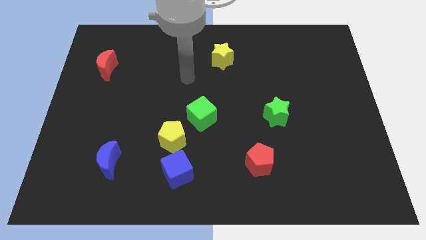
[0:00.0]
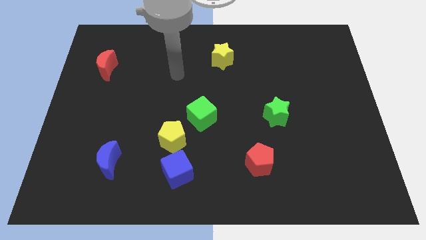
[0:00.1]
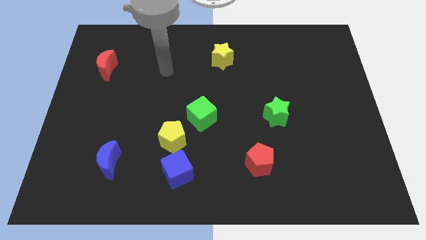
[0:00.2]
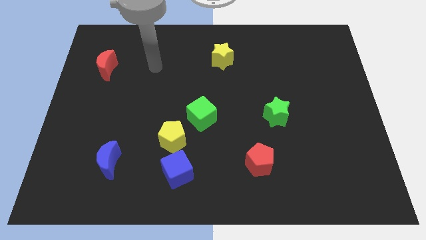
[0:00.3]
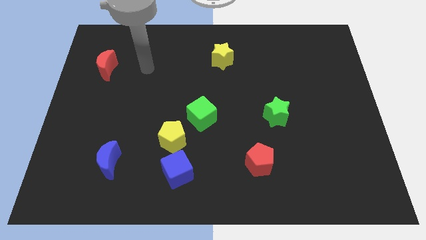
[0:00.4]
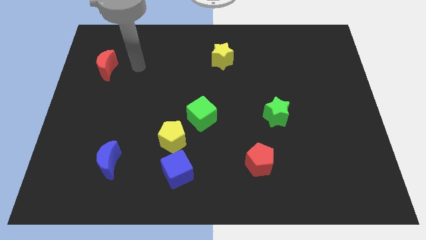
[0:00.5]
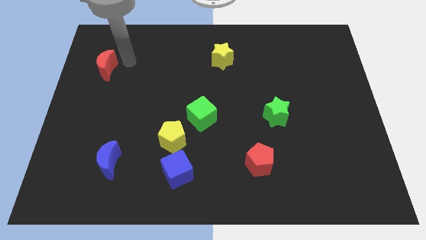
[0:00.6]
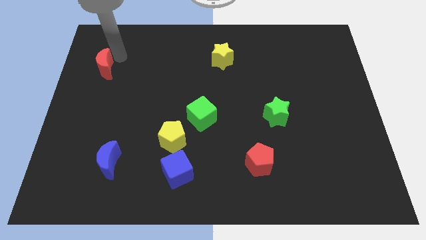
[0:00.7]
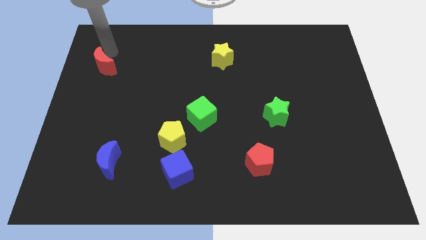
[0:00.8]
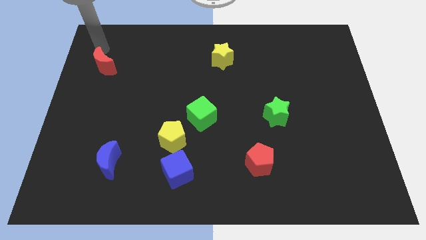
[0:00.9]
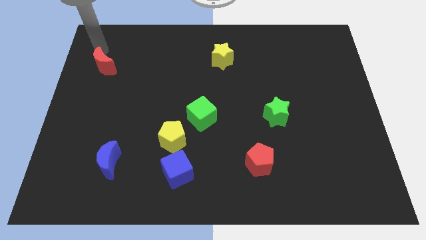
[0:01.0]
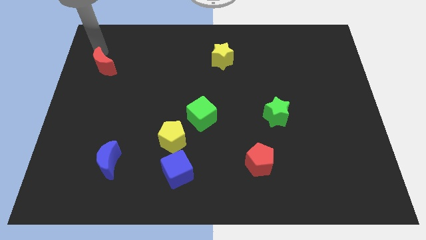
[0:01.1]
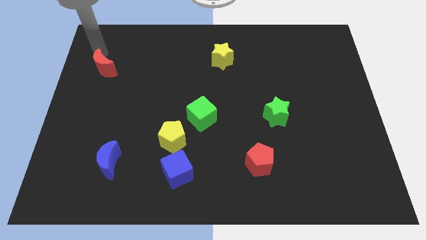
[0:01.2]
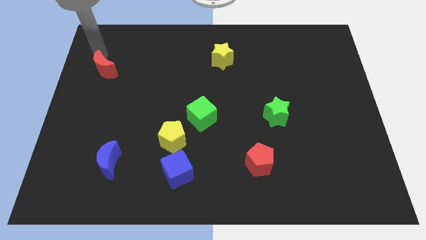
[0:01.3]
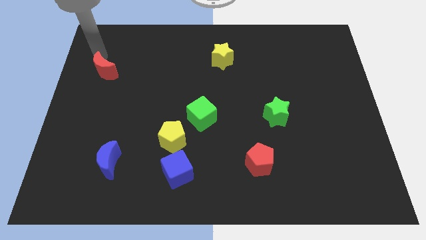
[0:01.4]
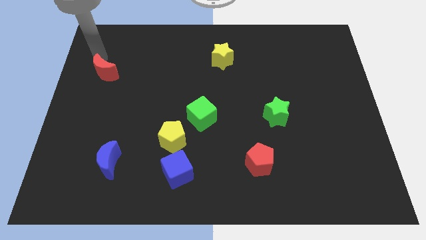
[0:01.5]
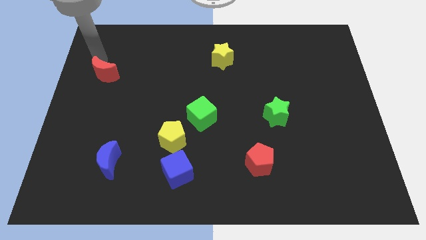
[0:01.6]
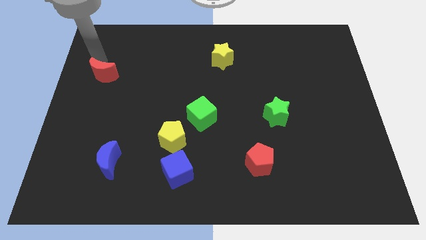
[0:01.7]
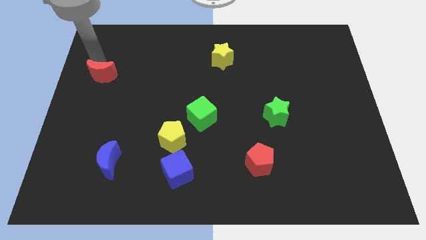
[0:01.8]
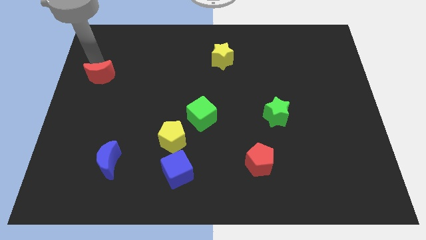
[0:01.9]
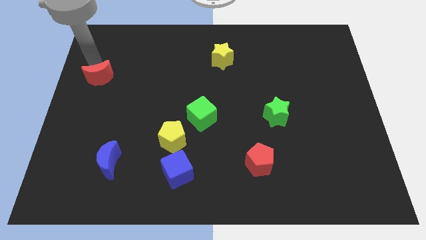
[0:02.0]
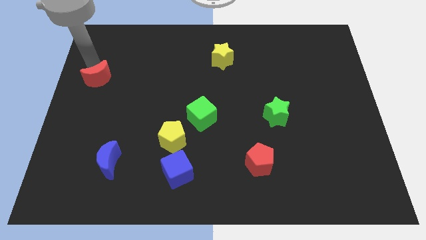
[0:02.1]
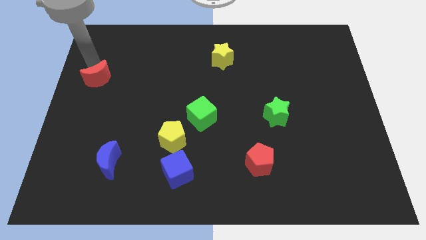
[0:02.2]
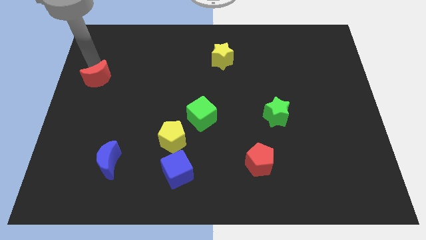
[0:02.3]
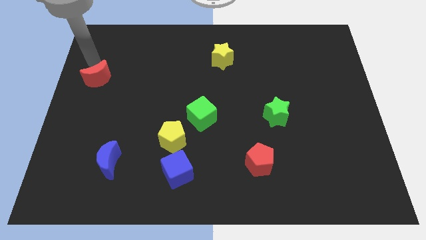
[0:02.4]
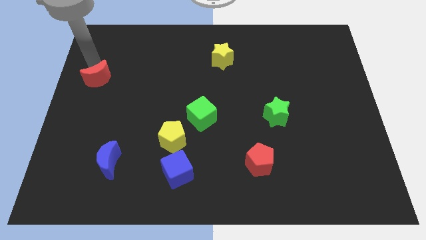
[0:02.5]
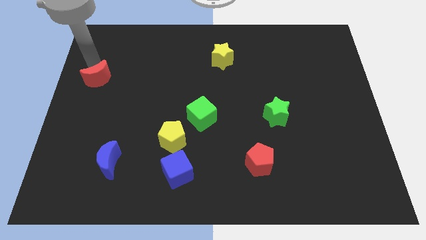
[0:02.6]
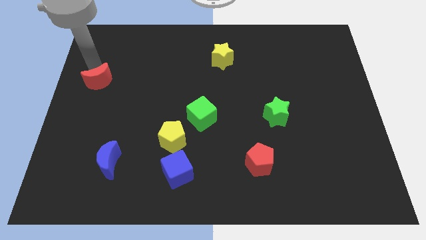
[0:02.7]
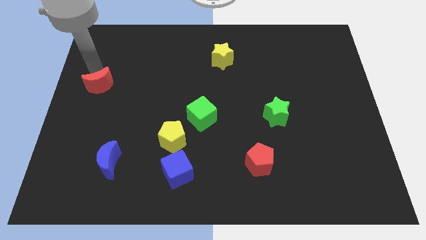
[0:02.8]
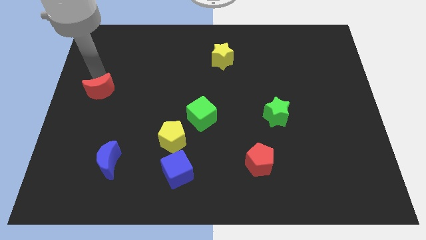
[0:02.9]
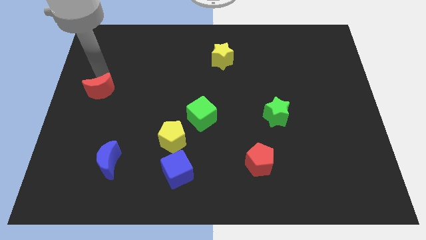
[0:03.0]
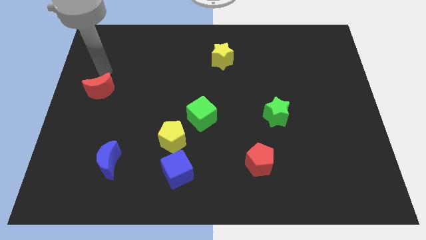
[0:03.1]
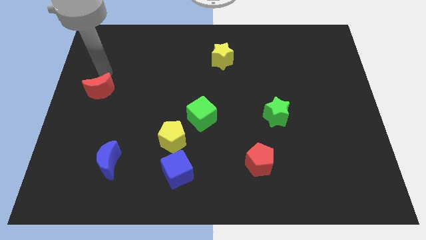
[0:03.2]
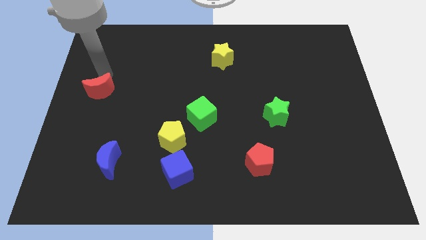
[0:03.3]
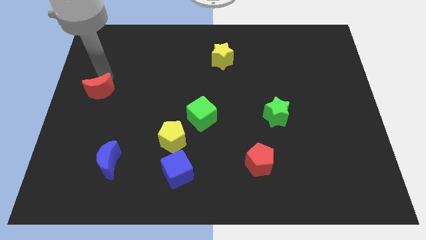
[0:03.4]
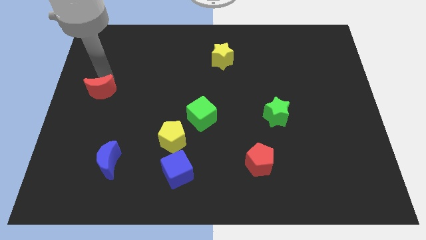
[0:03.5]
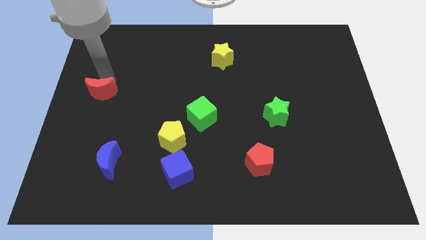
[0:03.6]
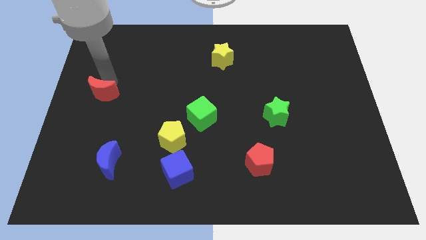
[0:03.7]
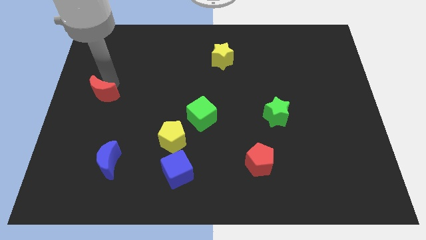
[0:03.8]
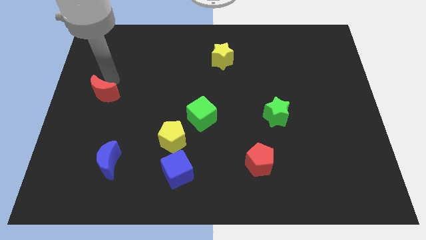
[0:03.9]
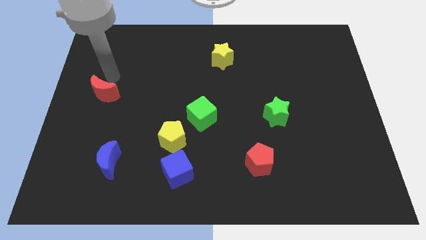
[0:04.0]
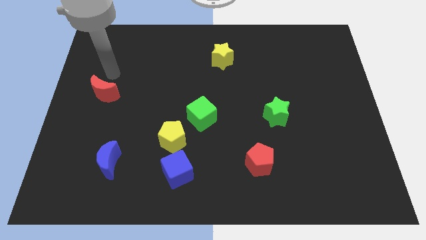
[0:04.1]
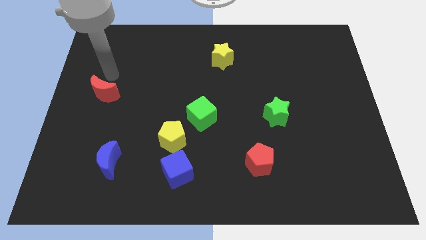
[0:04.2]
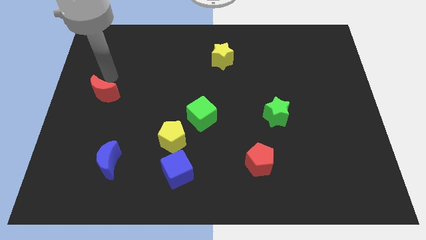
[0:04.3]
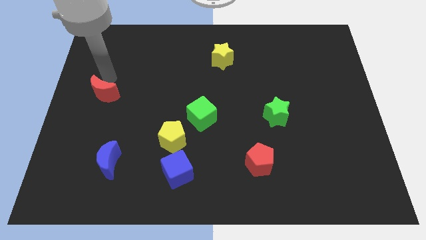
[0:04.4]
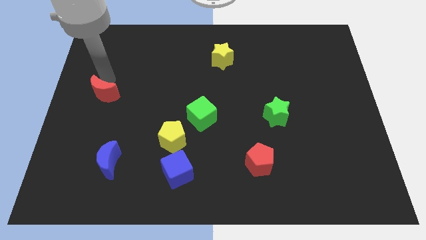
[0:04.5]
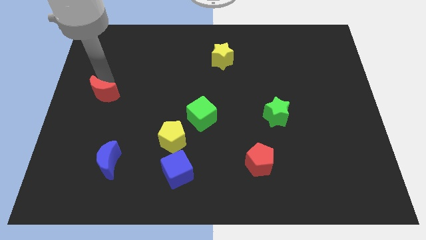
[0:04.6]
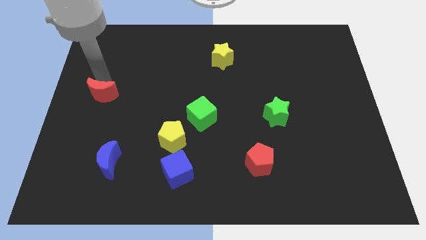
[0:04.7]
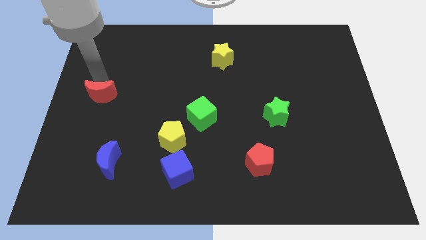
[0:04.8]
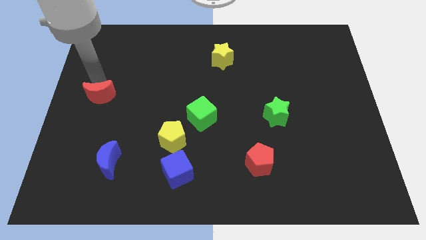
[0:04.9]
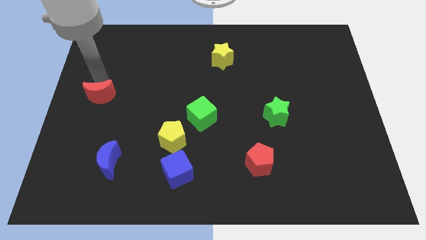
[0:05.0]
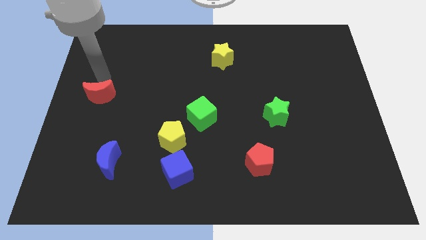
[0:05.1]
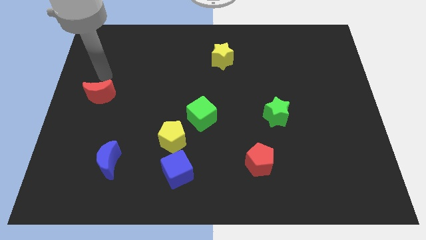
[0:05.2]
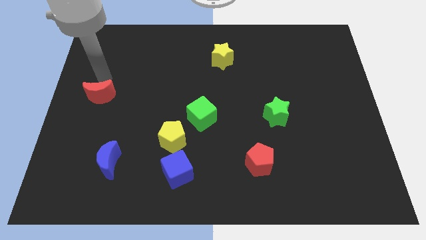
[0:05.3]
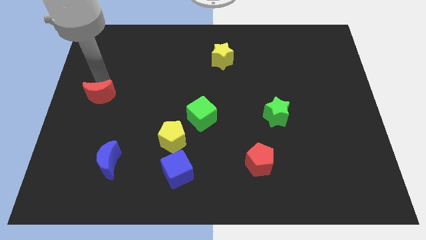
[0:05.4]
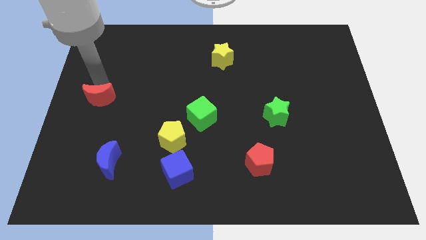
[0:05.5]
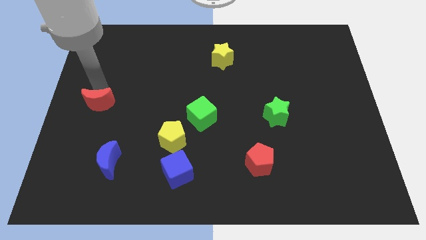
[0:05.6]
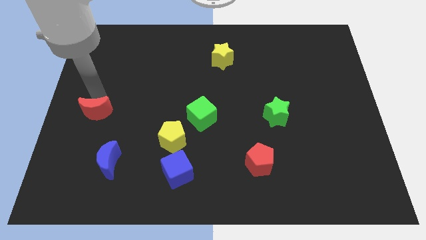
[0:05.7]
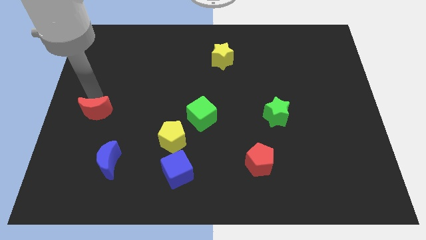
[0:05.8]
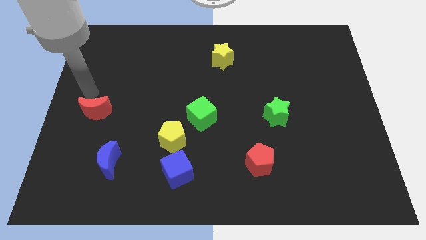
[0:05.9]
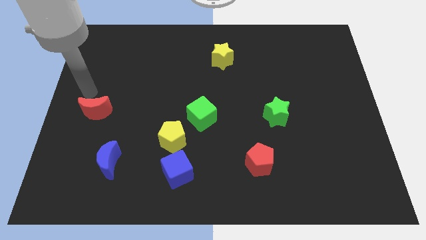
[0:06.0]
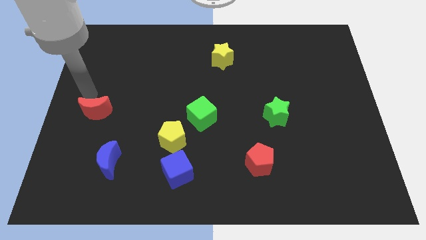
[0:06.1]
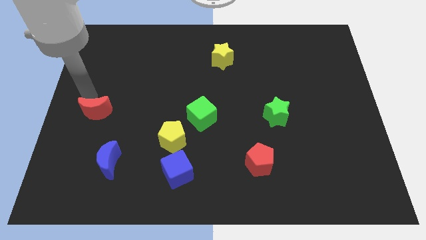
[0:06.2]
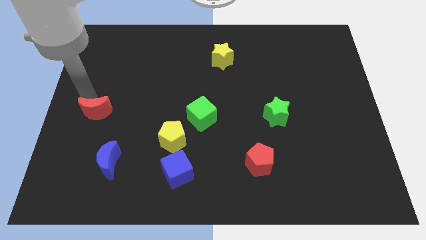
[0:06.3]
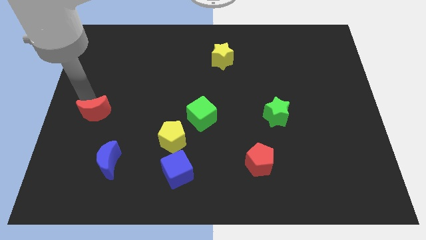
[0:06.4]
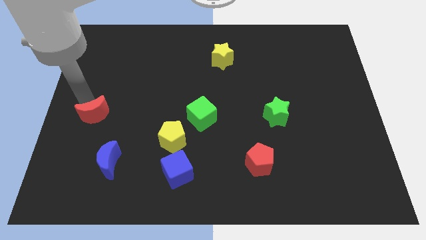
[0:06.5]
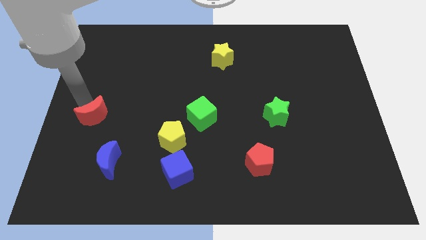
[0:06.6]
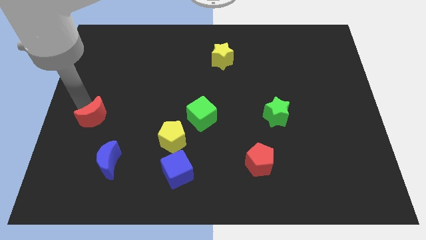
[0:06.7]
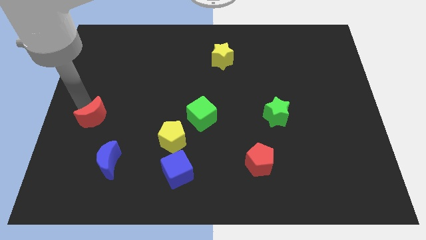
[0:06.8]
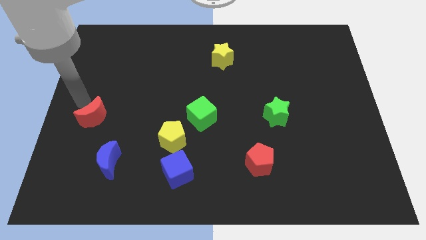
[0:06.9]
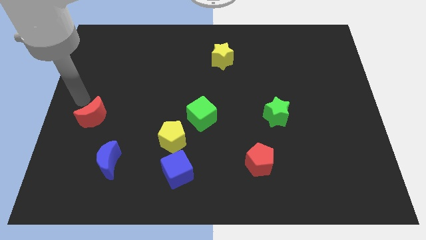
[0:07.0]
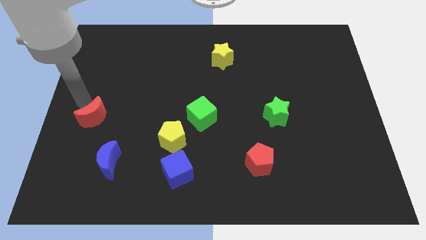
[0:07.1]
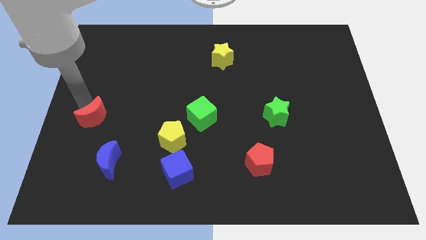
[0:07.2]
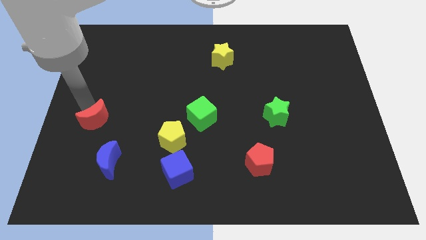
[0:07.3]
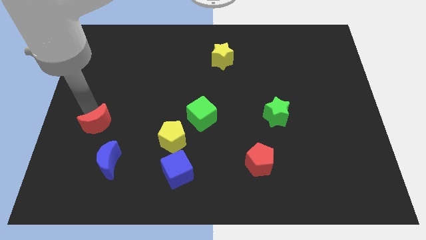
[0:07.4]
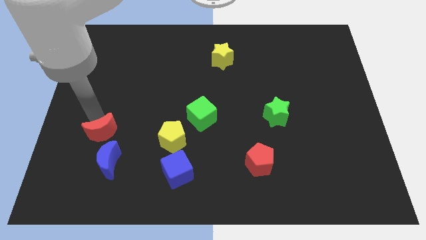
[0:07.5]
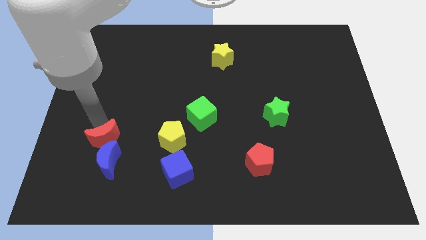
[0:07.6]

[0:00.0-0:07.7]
put the red moon close to the blue moon
